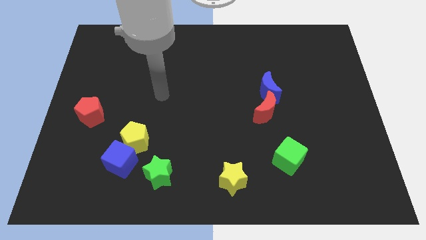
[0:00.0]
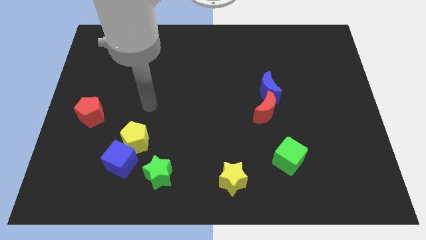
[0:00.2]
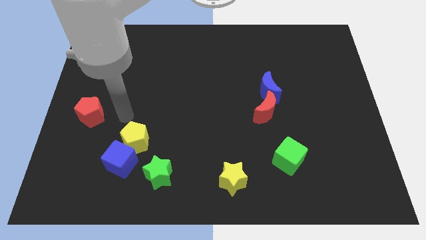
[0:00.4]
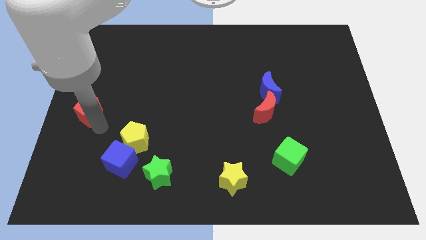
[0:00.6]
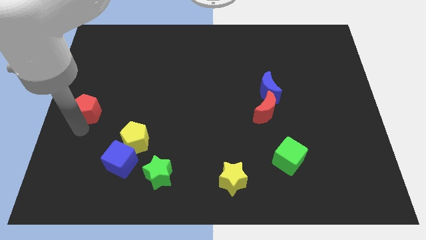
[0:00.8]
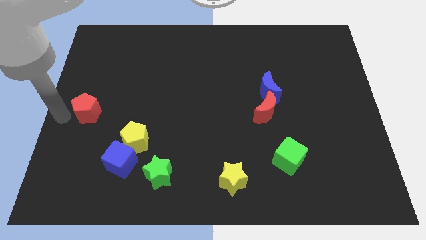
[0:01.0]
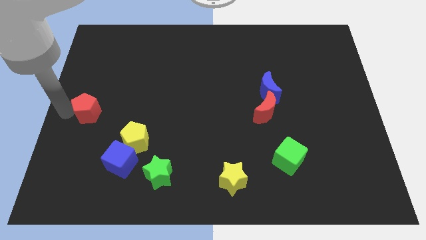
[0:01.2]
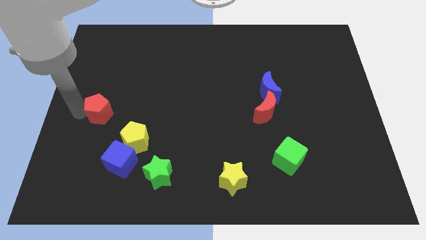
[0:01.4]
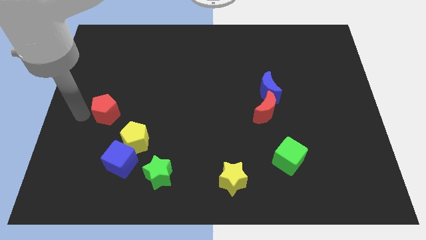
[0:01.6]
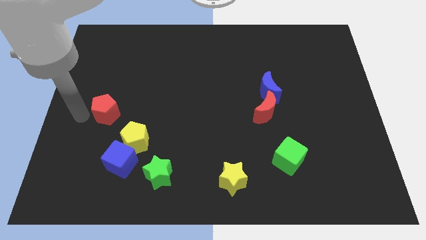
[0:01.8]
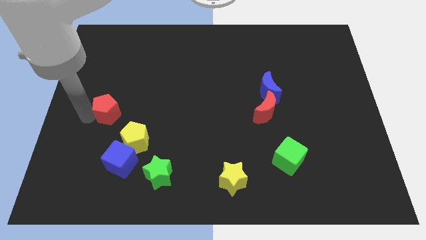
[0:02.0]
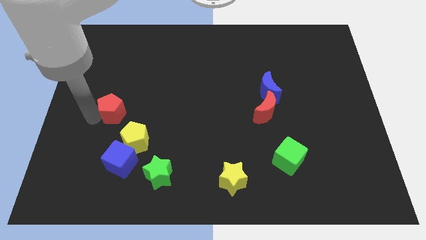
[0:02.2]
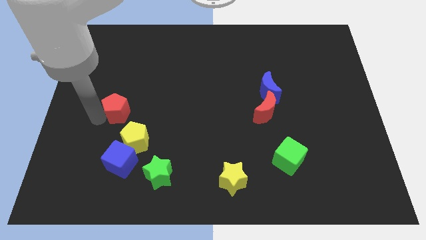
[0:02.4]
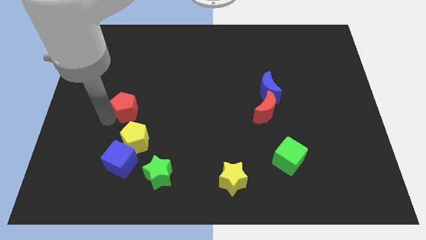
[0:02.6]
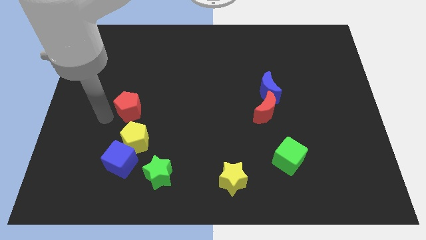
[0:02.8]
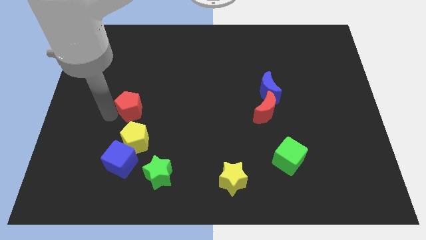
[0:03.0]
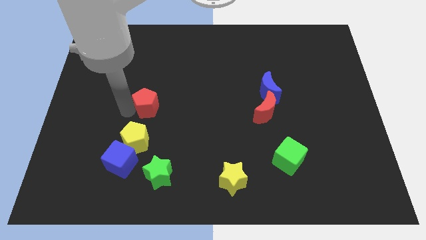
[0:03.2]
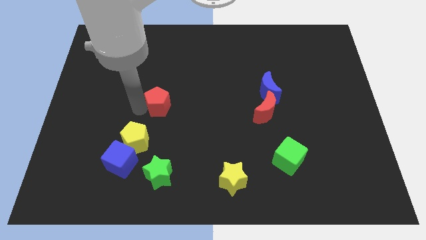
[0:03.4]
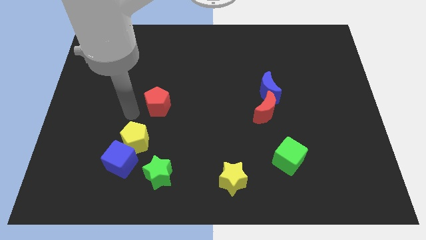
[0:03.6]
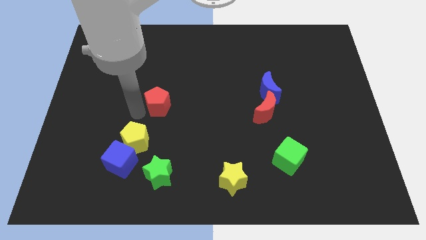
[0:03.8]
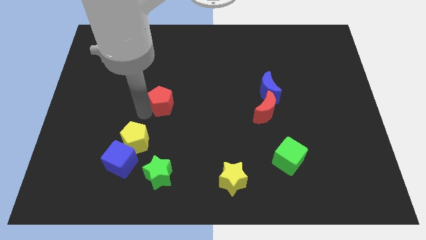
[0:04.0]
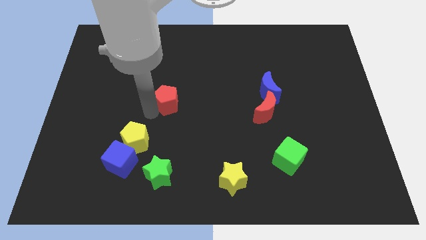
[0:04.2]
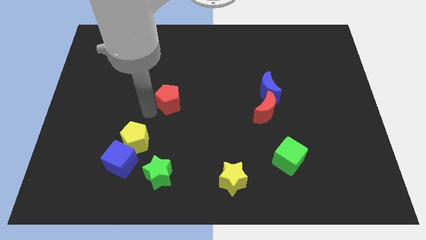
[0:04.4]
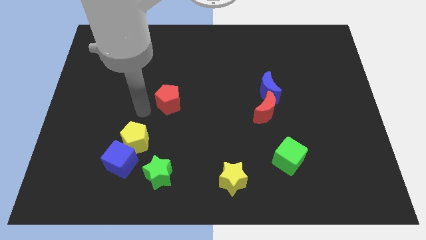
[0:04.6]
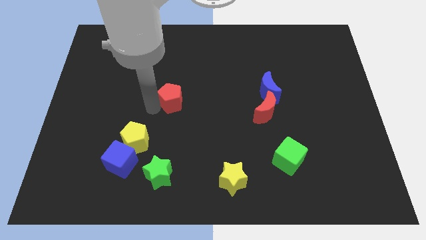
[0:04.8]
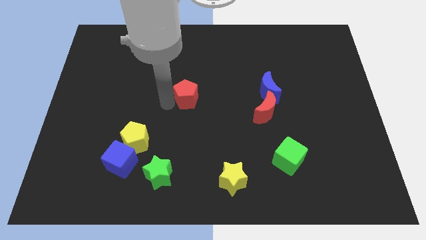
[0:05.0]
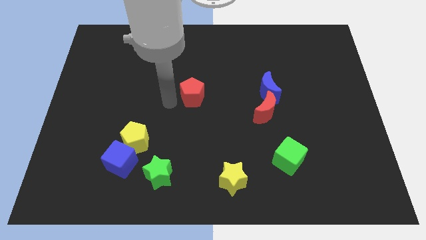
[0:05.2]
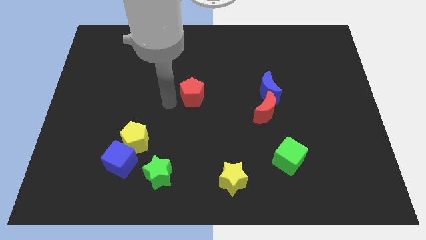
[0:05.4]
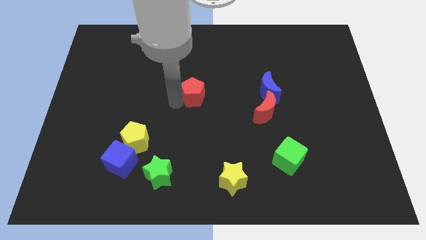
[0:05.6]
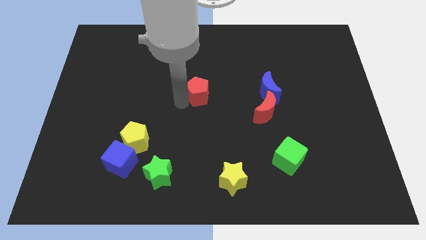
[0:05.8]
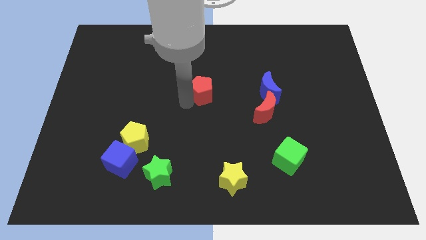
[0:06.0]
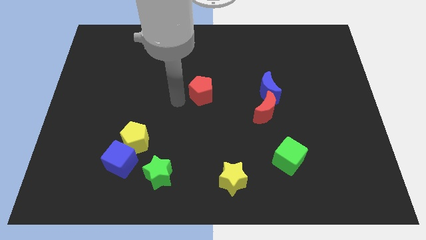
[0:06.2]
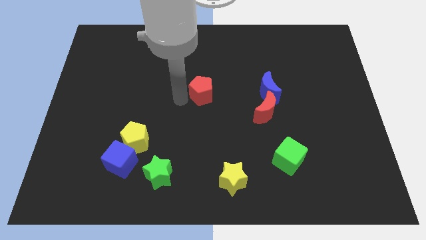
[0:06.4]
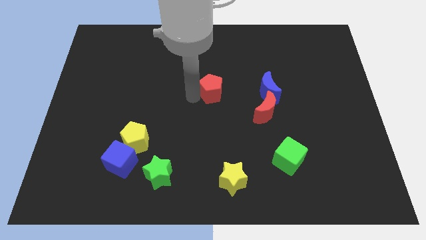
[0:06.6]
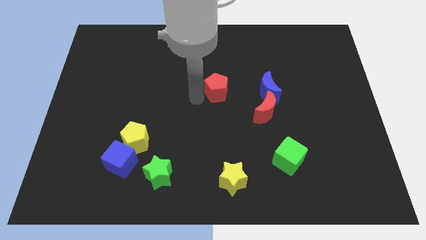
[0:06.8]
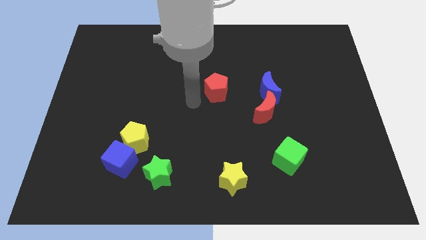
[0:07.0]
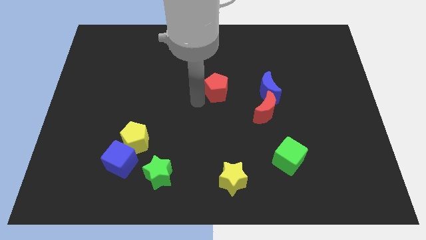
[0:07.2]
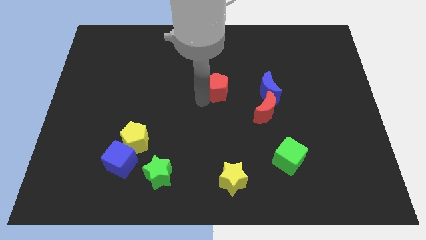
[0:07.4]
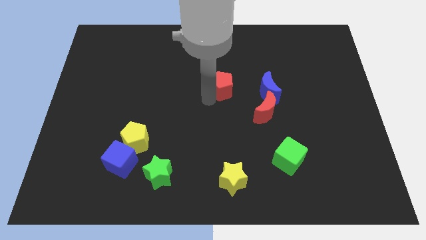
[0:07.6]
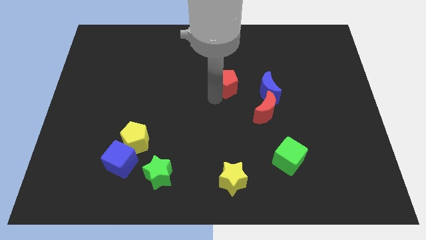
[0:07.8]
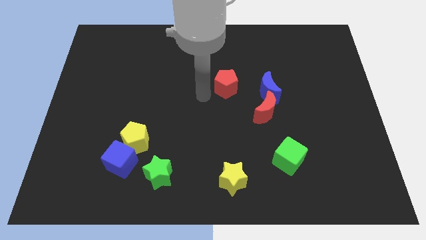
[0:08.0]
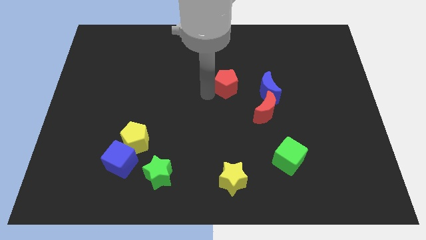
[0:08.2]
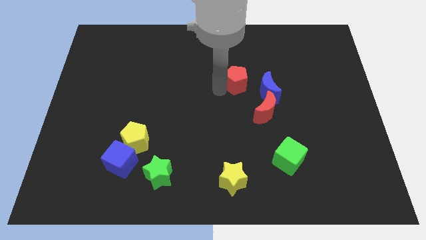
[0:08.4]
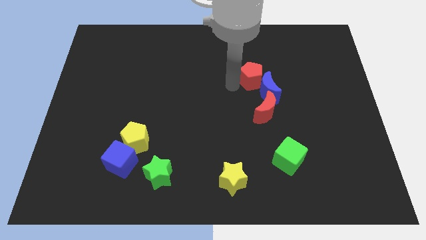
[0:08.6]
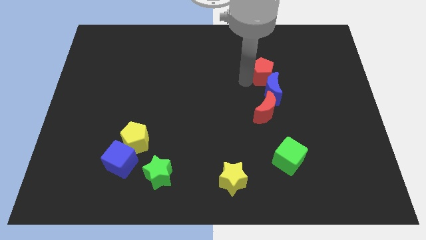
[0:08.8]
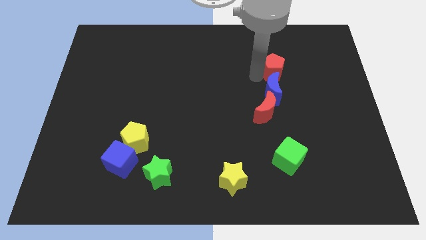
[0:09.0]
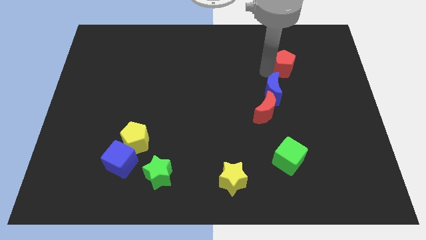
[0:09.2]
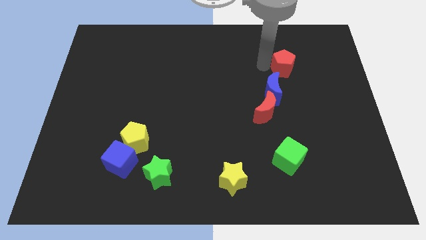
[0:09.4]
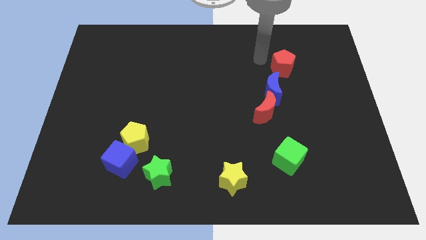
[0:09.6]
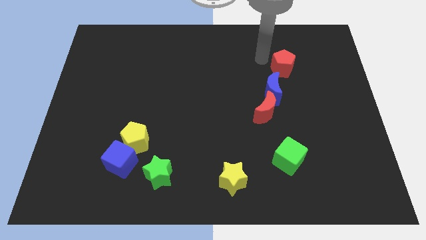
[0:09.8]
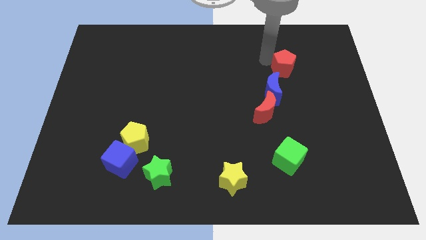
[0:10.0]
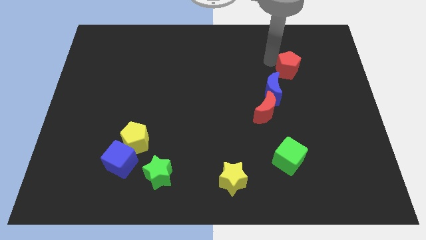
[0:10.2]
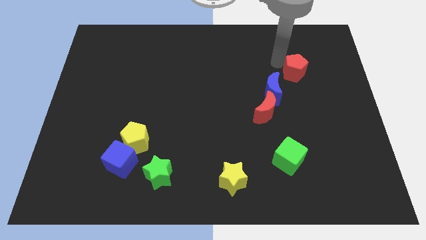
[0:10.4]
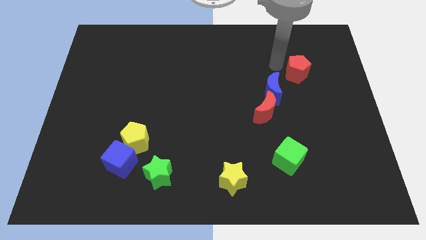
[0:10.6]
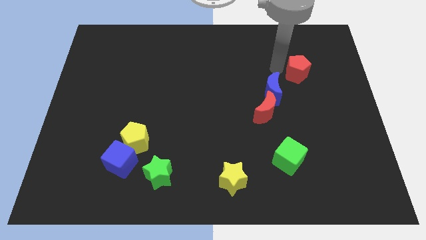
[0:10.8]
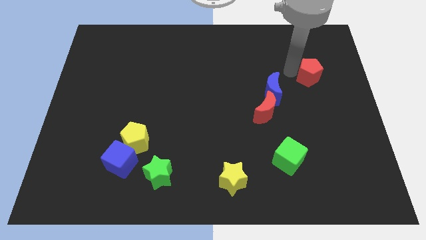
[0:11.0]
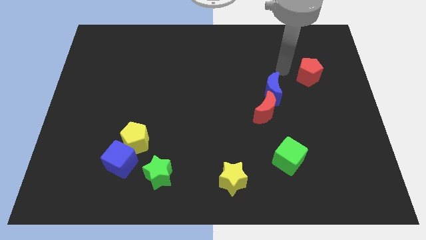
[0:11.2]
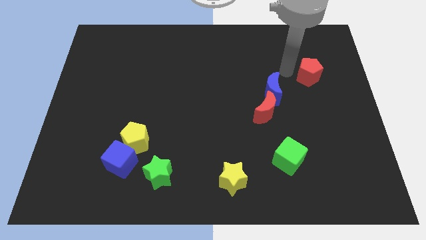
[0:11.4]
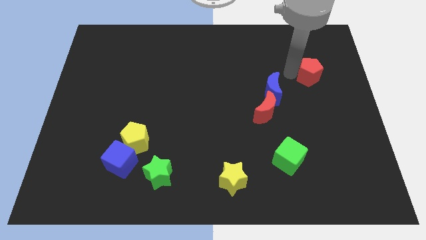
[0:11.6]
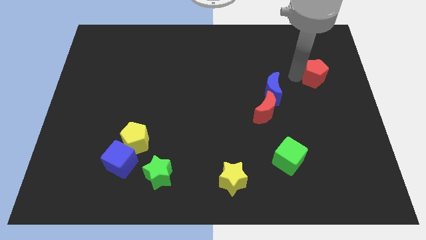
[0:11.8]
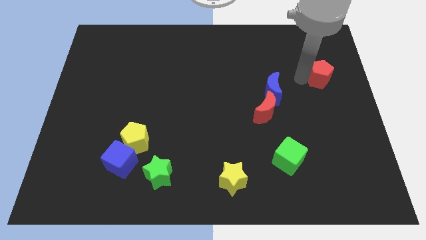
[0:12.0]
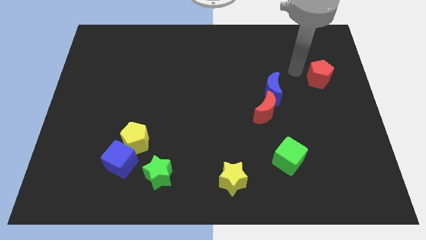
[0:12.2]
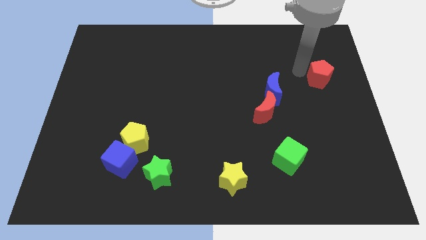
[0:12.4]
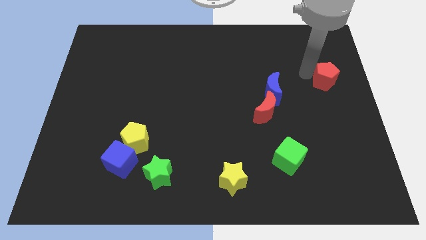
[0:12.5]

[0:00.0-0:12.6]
slide the red pentagon to the right side

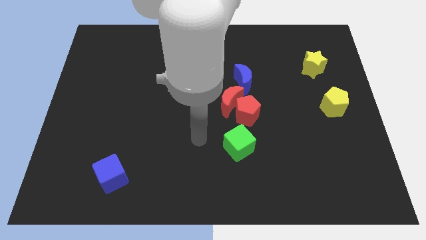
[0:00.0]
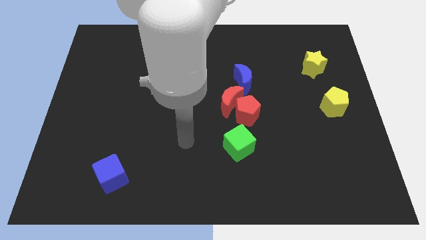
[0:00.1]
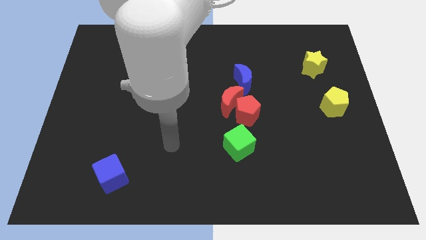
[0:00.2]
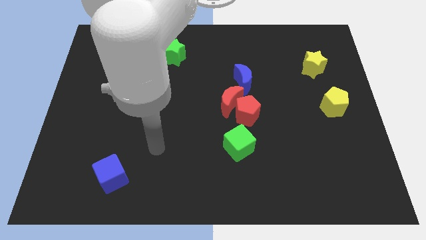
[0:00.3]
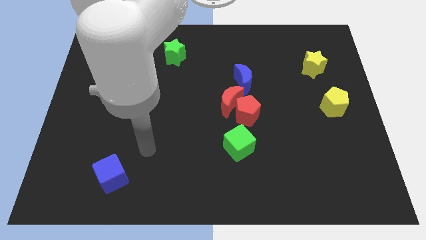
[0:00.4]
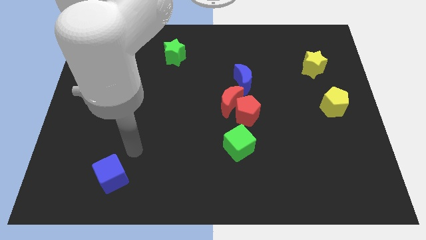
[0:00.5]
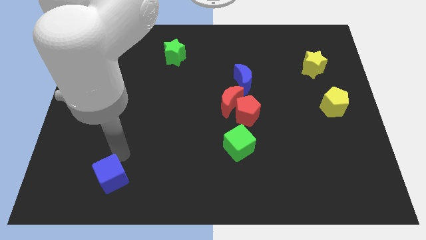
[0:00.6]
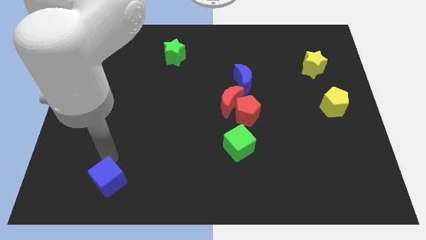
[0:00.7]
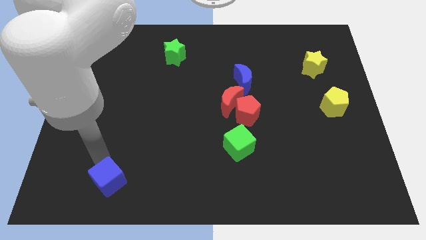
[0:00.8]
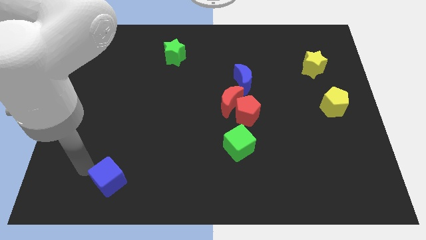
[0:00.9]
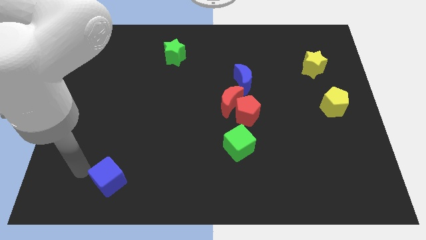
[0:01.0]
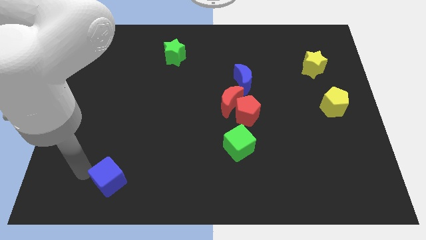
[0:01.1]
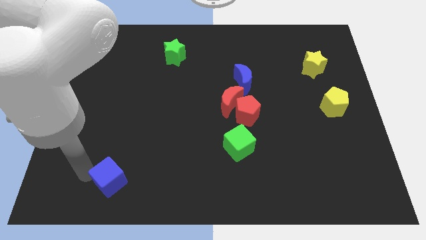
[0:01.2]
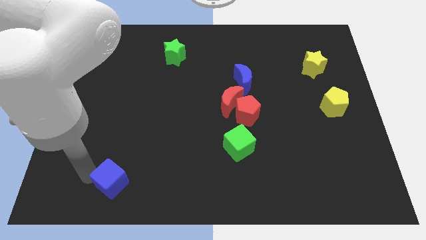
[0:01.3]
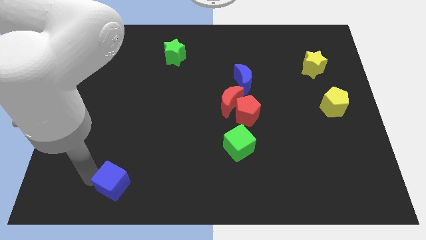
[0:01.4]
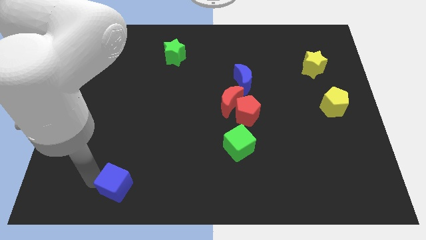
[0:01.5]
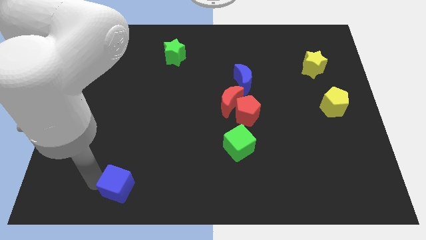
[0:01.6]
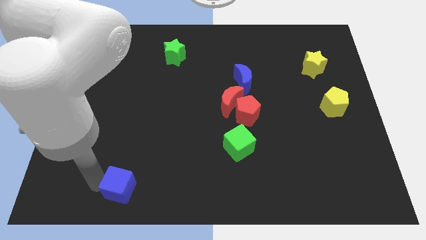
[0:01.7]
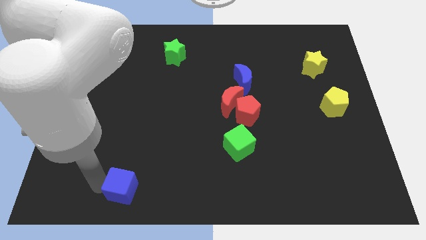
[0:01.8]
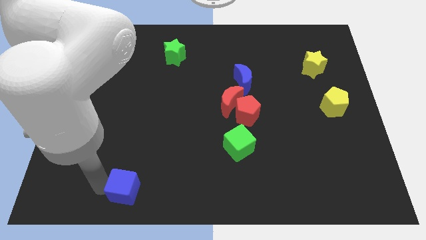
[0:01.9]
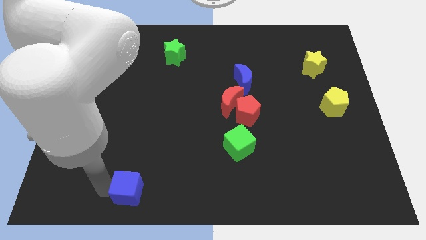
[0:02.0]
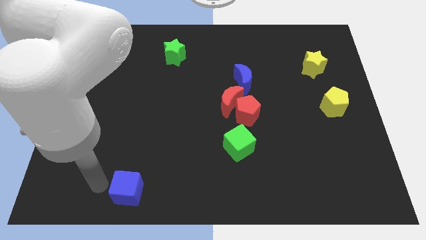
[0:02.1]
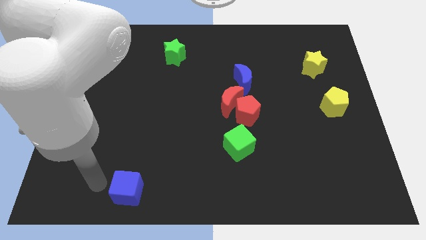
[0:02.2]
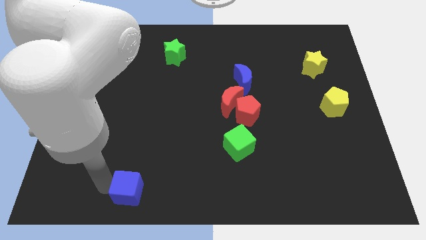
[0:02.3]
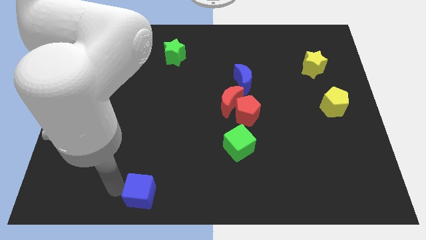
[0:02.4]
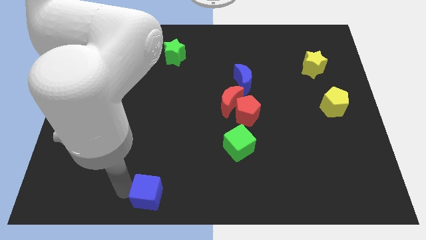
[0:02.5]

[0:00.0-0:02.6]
slide the blue cube to the bottom side
